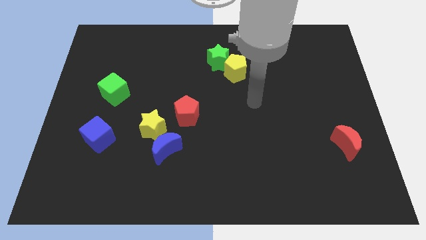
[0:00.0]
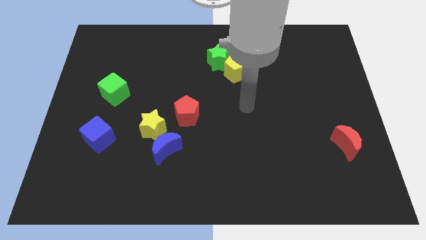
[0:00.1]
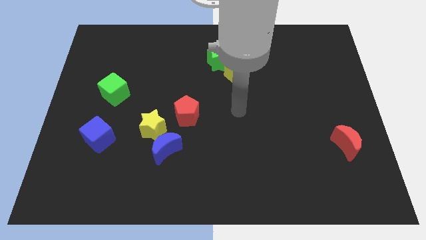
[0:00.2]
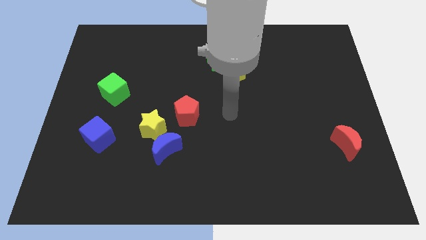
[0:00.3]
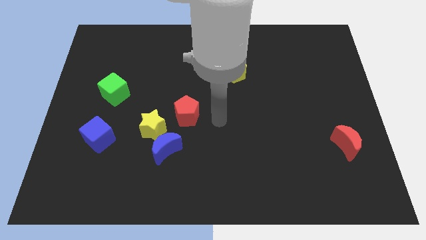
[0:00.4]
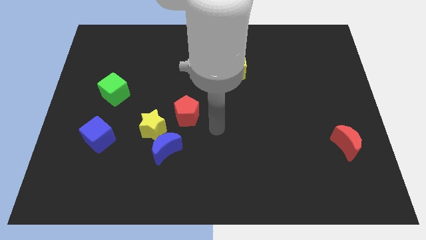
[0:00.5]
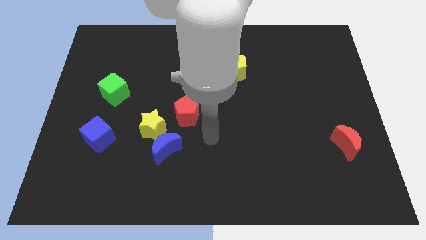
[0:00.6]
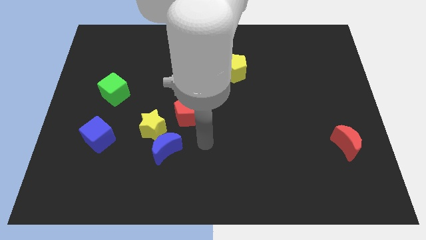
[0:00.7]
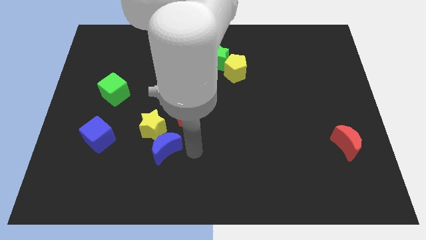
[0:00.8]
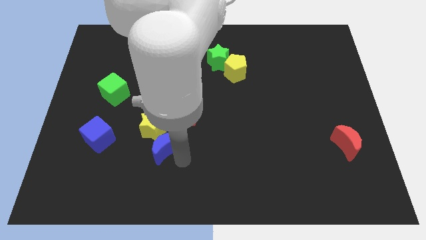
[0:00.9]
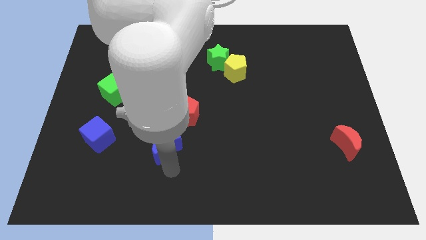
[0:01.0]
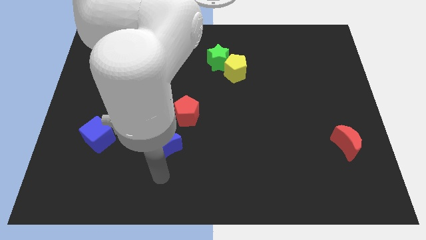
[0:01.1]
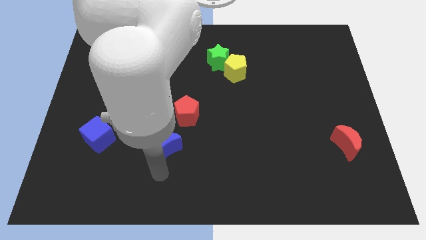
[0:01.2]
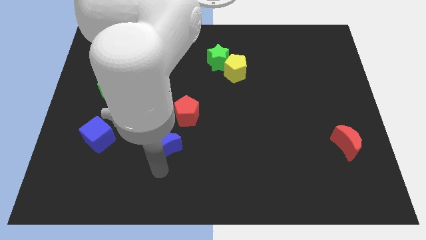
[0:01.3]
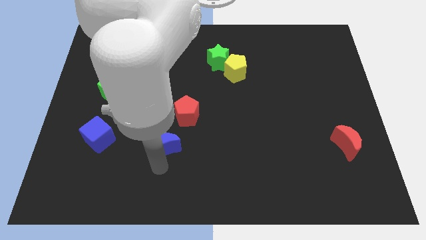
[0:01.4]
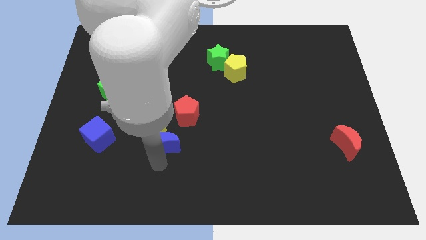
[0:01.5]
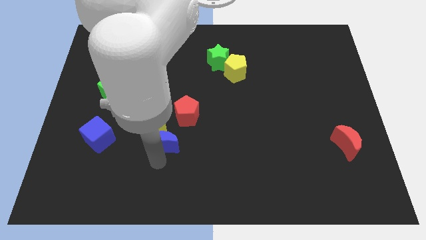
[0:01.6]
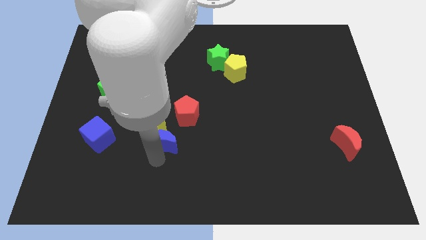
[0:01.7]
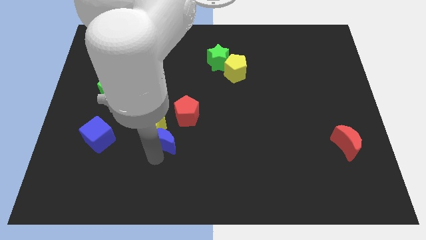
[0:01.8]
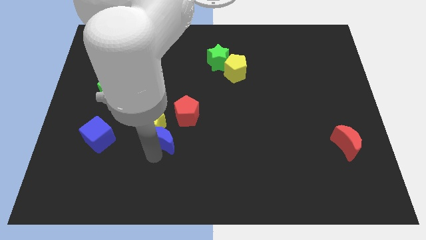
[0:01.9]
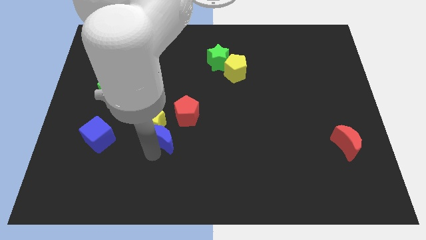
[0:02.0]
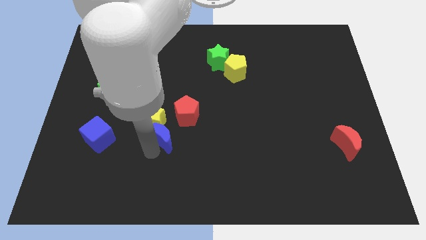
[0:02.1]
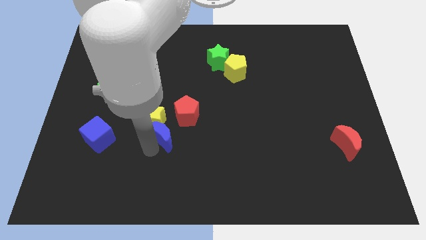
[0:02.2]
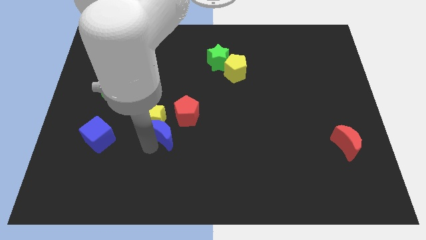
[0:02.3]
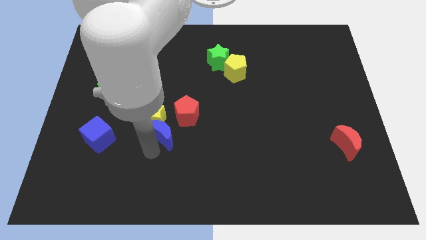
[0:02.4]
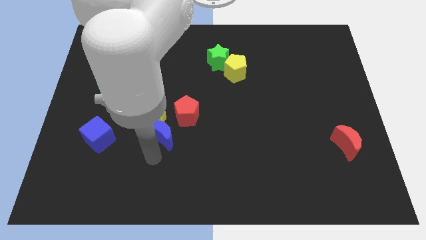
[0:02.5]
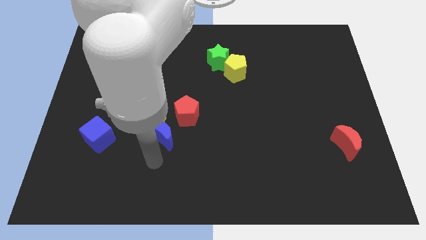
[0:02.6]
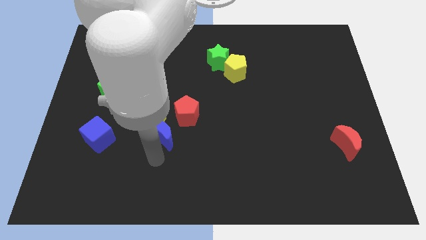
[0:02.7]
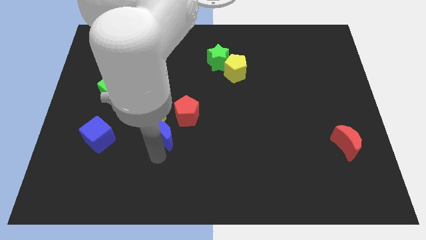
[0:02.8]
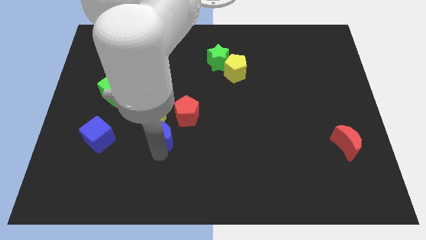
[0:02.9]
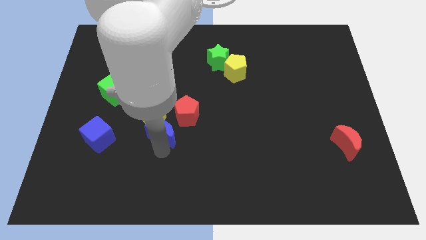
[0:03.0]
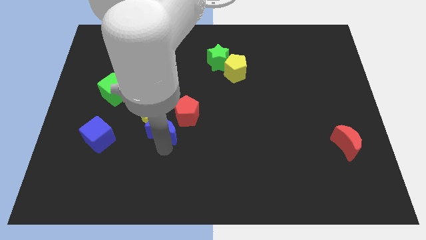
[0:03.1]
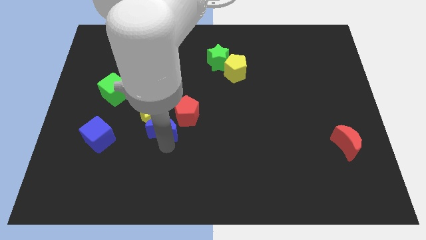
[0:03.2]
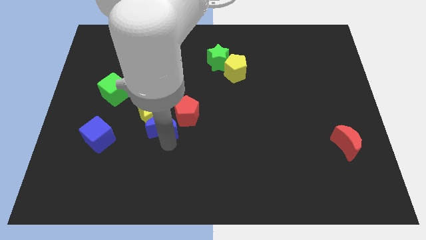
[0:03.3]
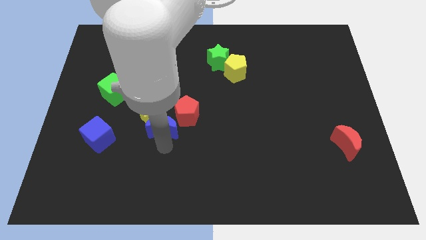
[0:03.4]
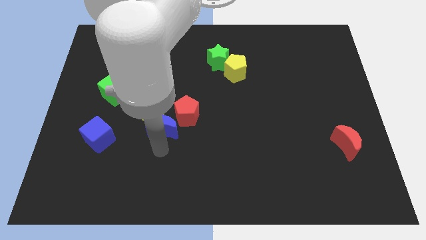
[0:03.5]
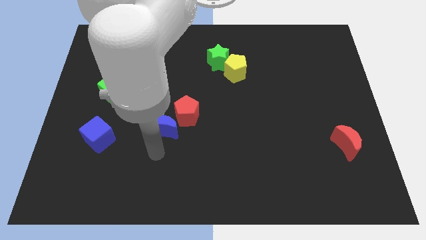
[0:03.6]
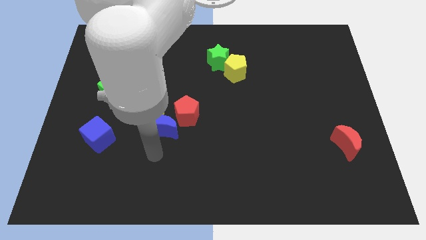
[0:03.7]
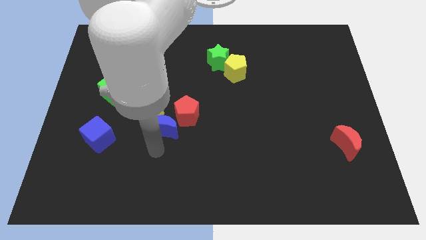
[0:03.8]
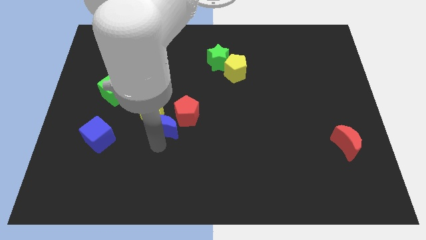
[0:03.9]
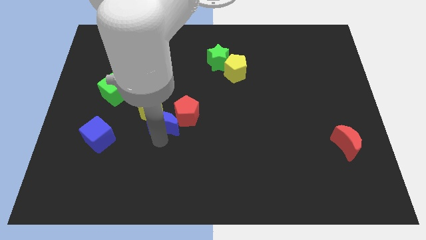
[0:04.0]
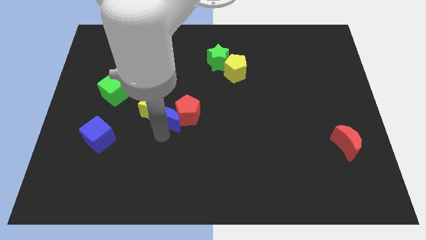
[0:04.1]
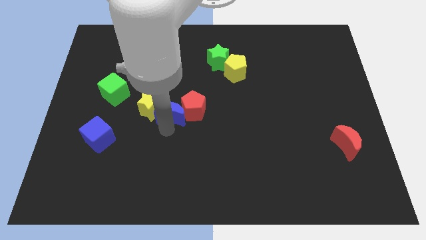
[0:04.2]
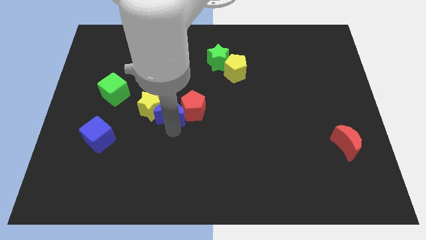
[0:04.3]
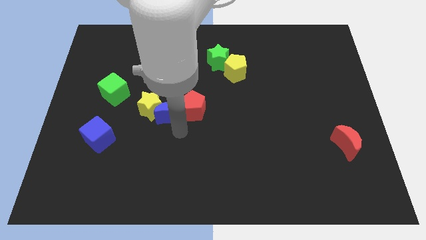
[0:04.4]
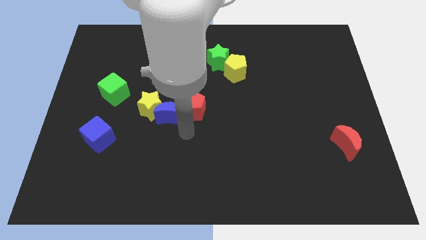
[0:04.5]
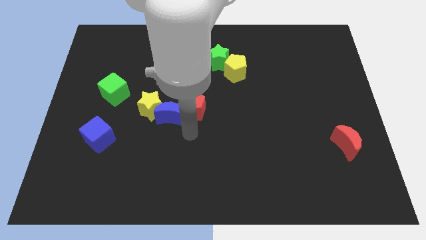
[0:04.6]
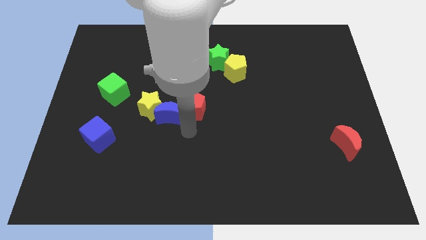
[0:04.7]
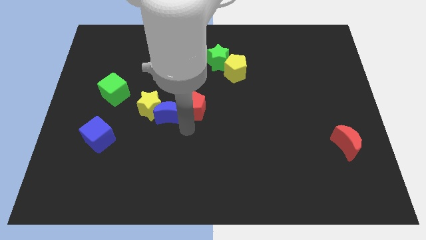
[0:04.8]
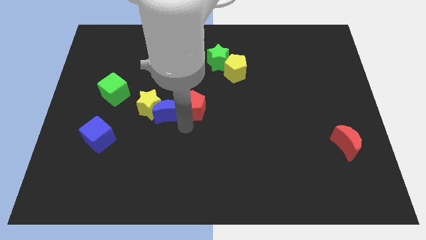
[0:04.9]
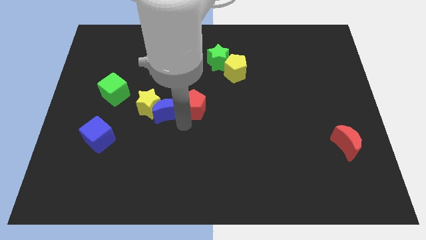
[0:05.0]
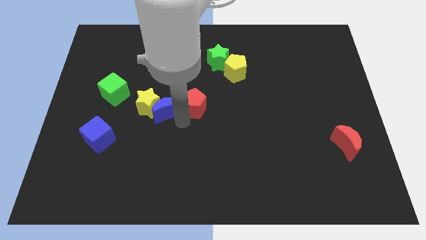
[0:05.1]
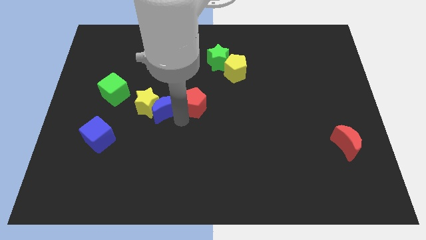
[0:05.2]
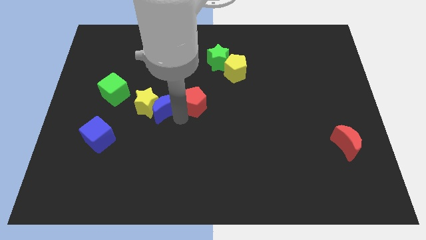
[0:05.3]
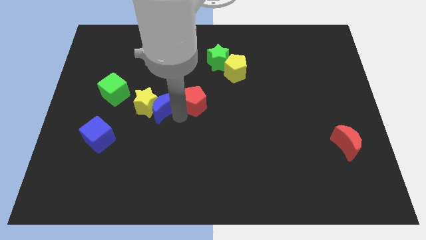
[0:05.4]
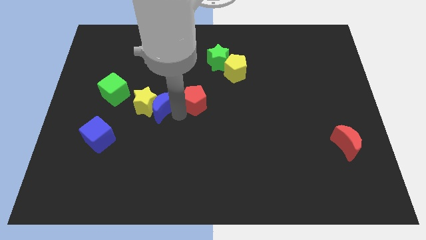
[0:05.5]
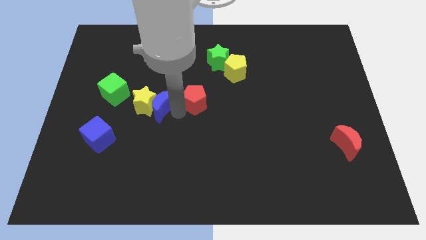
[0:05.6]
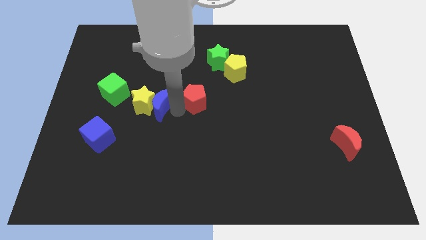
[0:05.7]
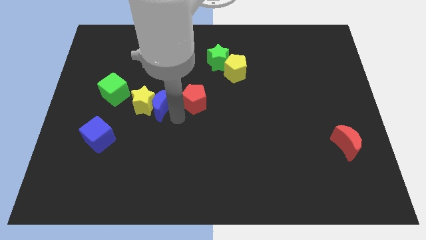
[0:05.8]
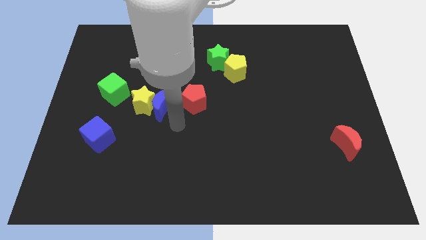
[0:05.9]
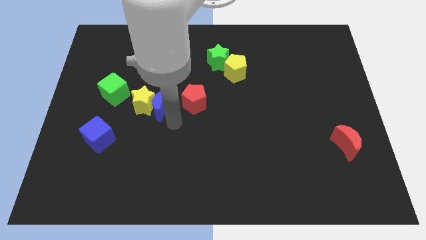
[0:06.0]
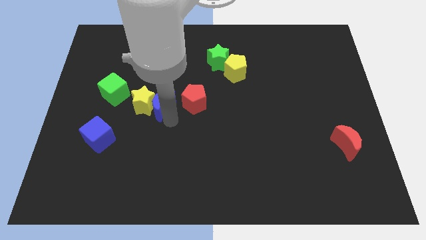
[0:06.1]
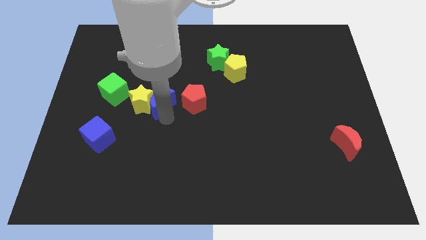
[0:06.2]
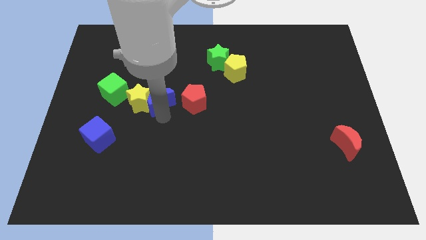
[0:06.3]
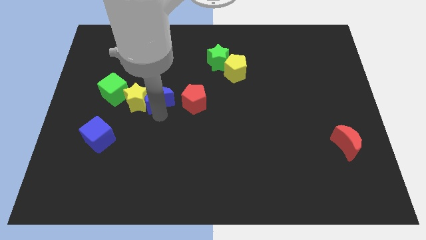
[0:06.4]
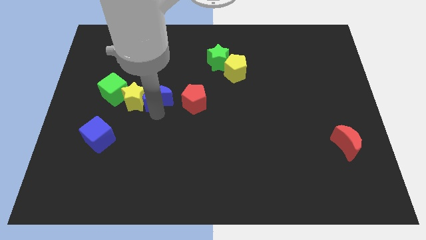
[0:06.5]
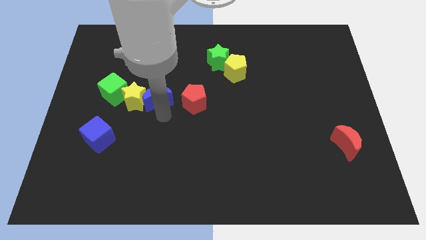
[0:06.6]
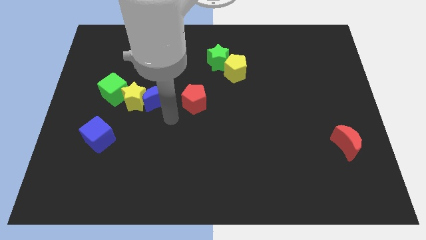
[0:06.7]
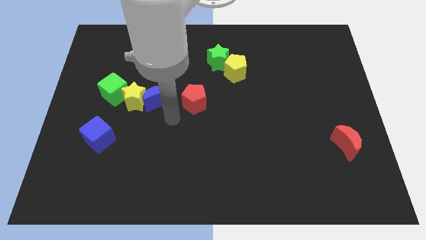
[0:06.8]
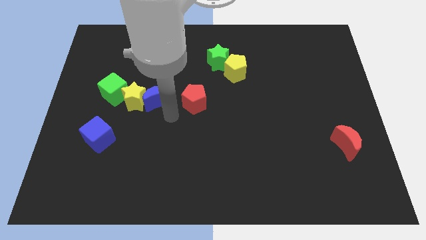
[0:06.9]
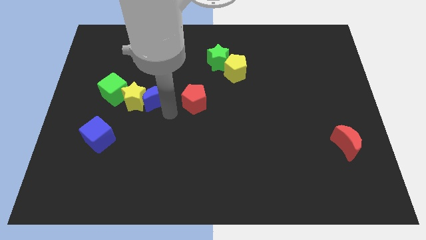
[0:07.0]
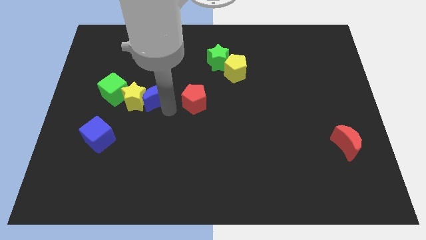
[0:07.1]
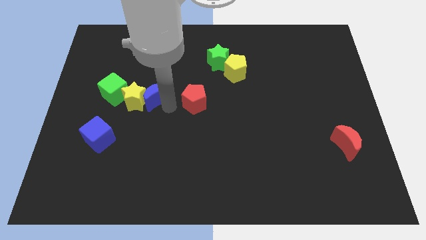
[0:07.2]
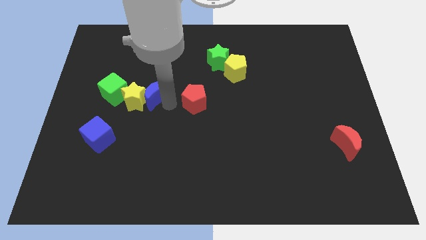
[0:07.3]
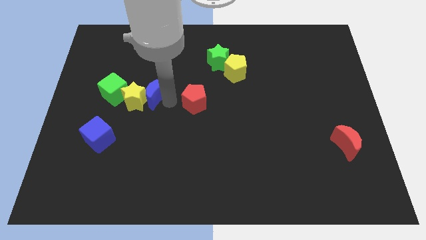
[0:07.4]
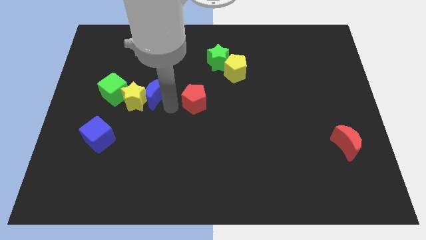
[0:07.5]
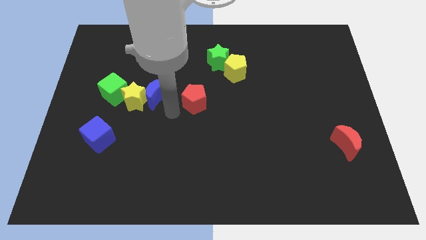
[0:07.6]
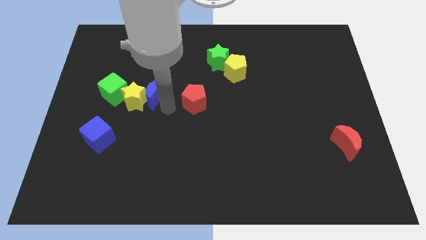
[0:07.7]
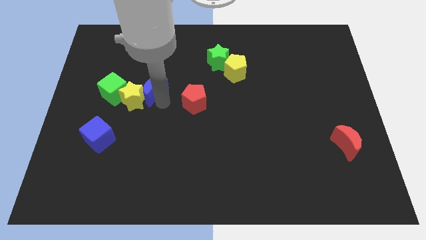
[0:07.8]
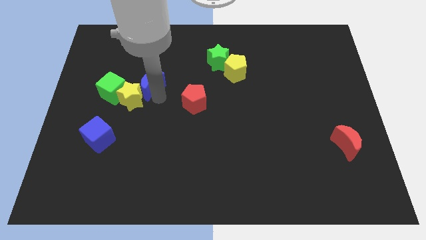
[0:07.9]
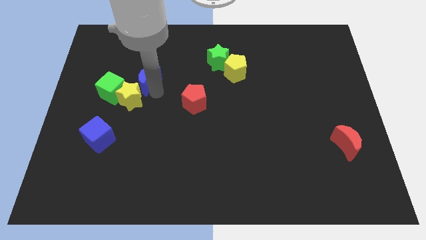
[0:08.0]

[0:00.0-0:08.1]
move the blue moon to the top right of the green cube

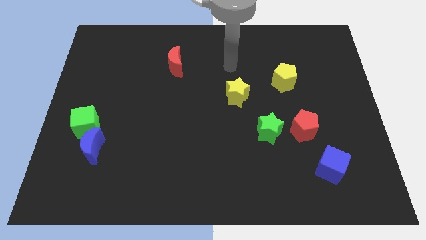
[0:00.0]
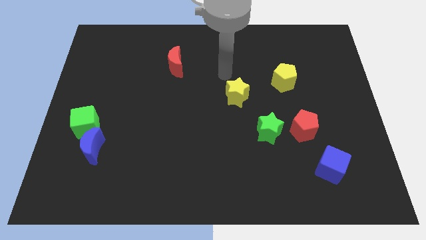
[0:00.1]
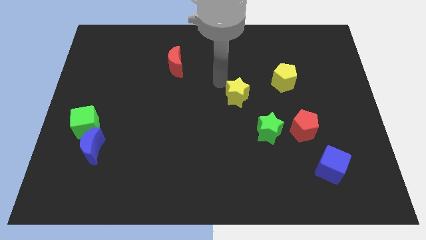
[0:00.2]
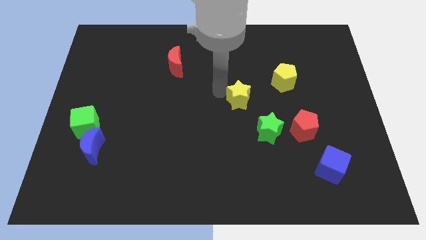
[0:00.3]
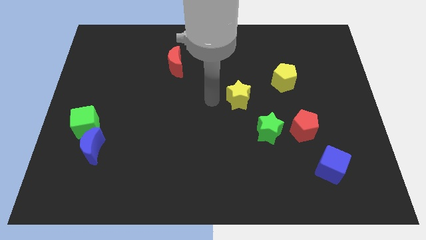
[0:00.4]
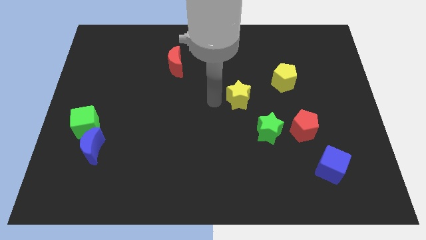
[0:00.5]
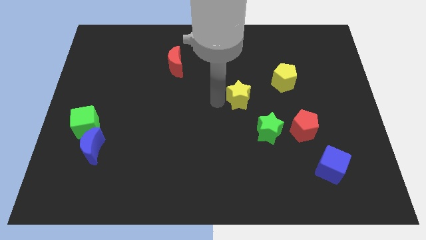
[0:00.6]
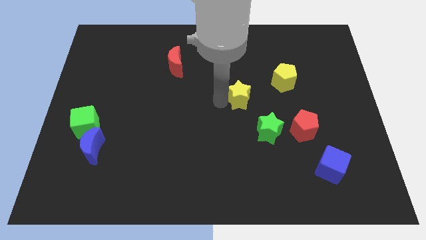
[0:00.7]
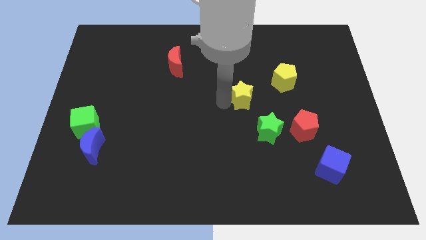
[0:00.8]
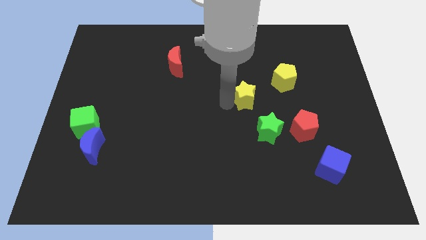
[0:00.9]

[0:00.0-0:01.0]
put the yellow star to the bottom left side of the yellow pentagon
